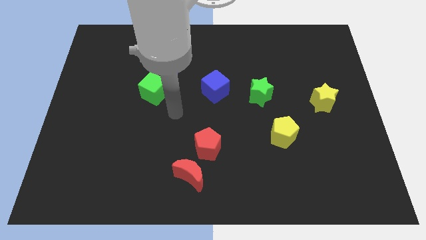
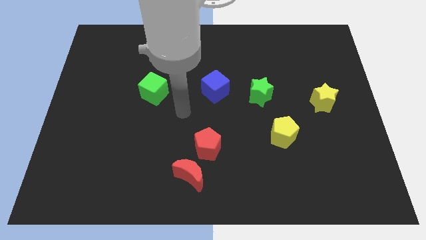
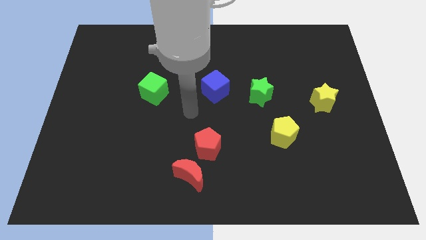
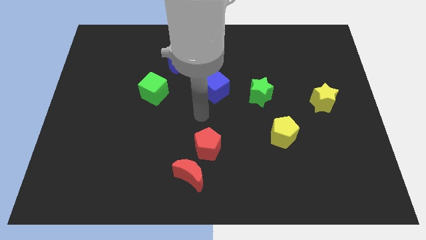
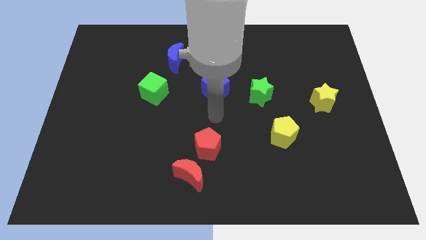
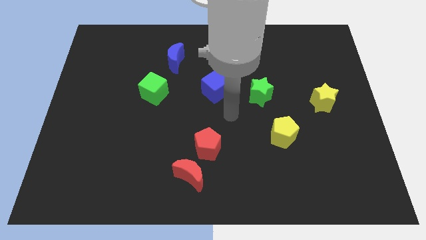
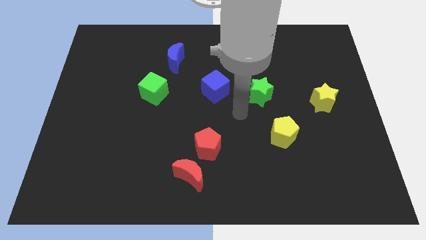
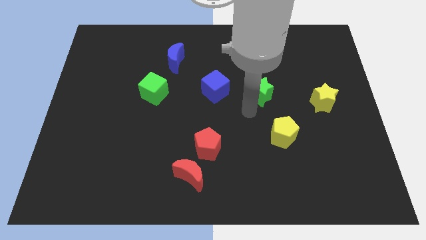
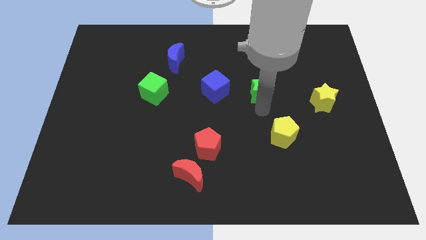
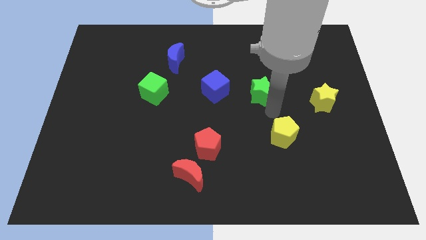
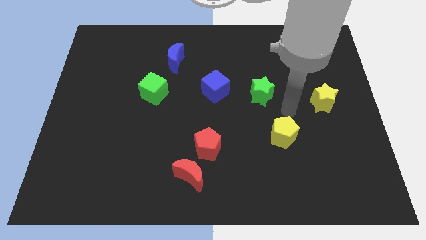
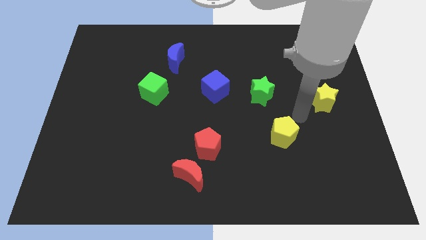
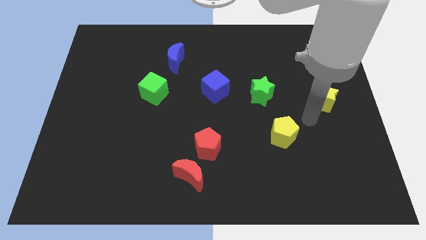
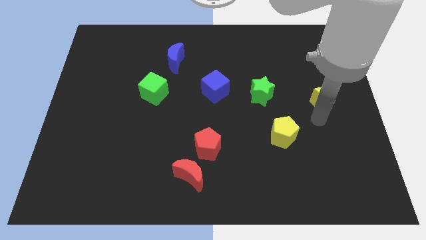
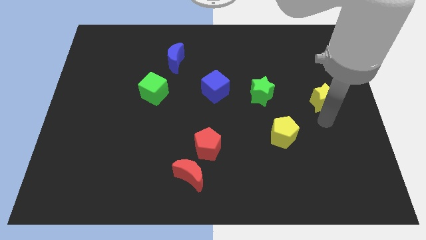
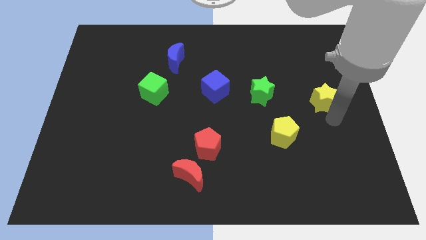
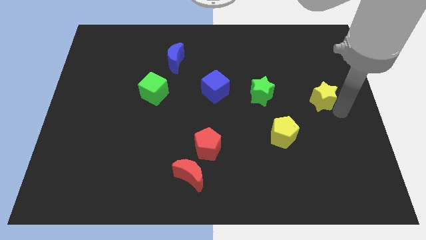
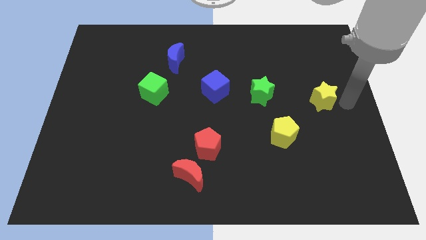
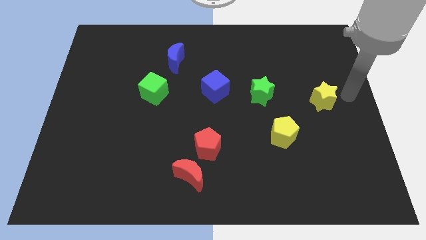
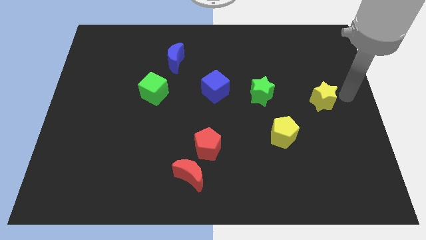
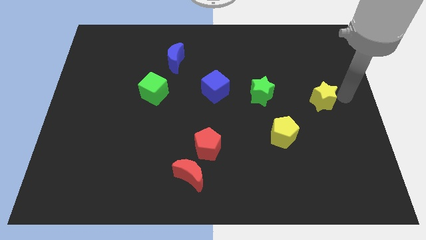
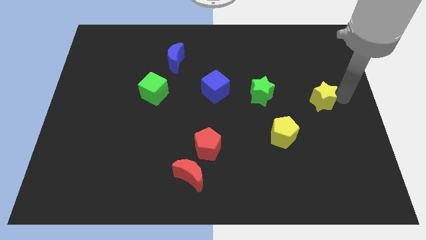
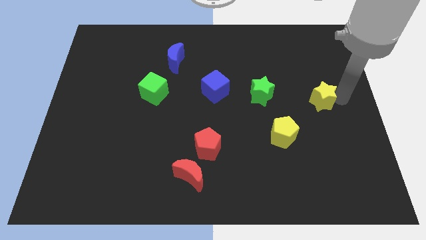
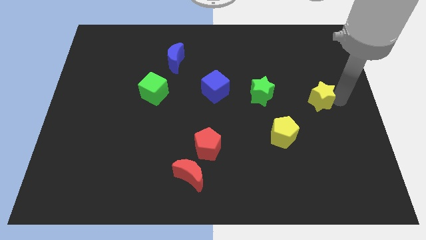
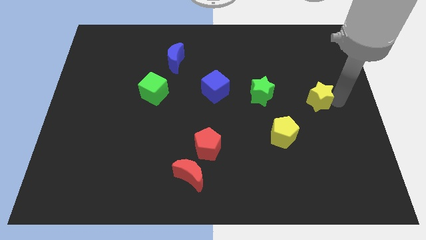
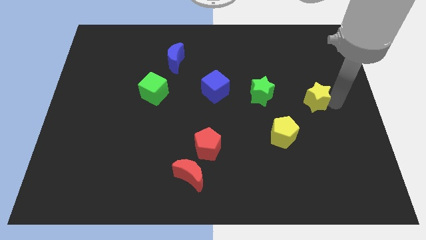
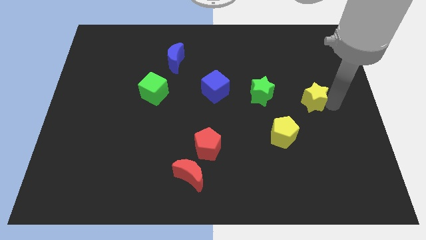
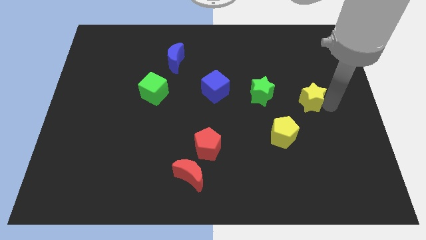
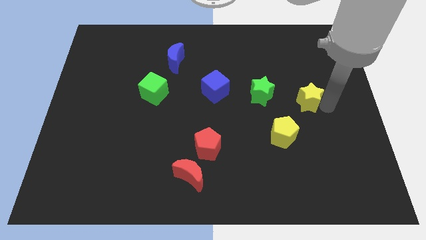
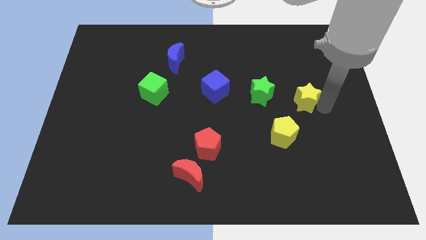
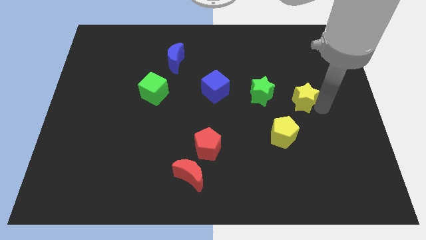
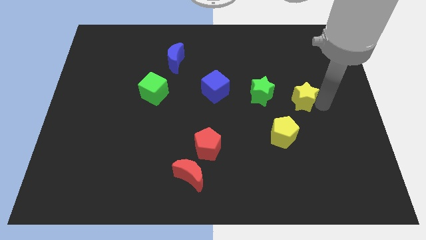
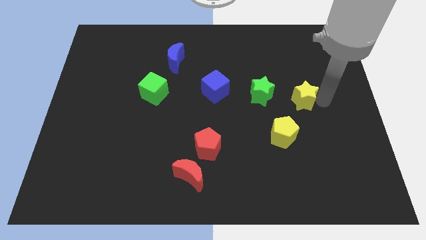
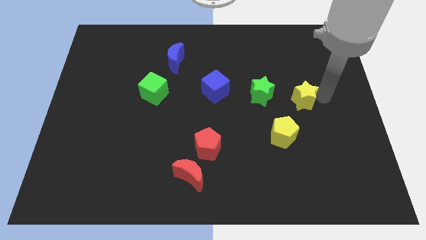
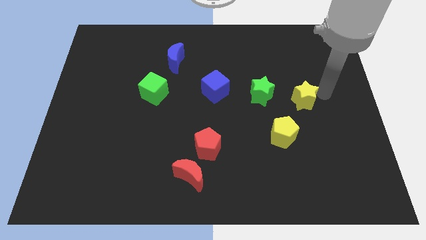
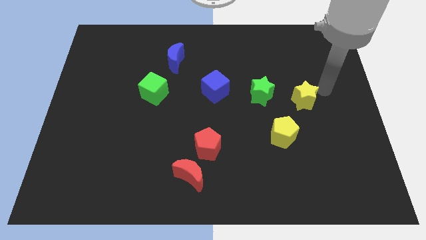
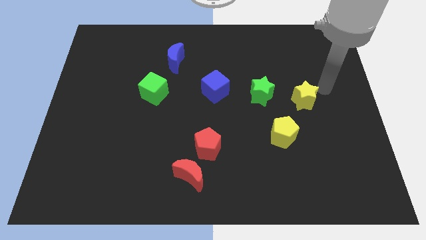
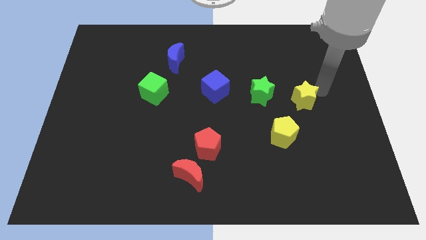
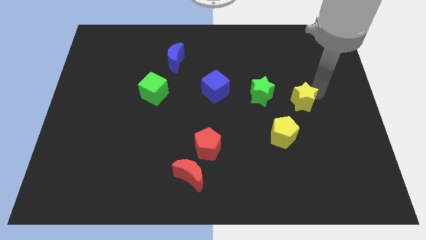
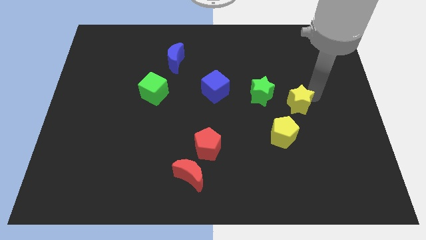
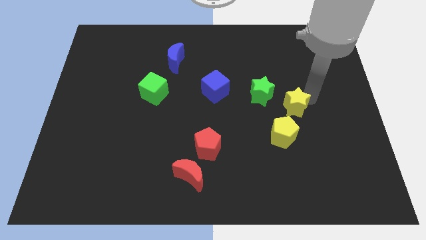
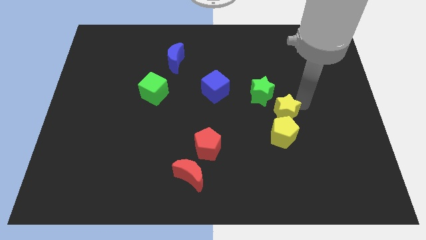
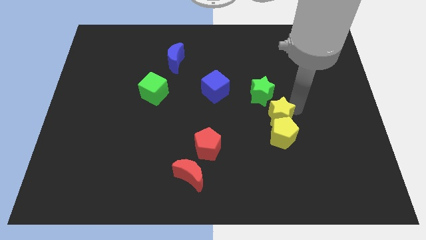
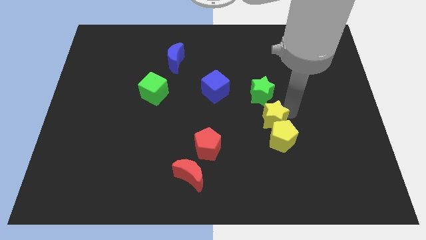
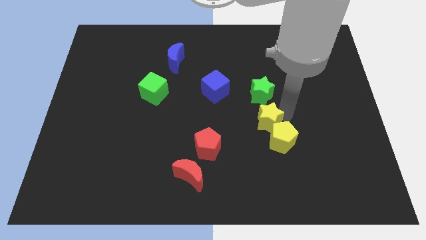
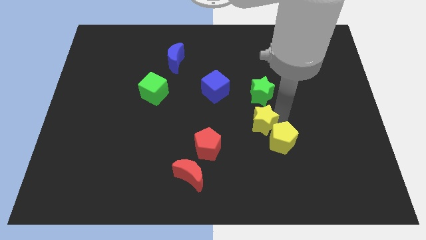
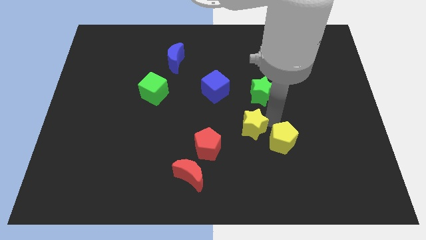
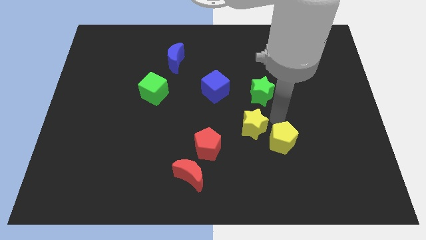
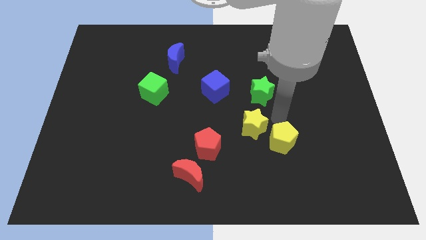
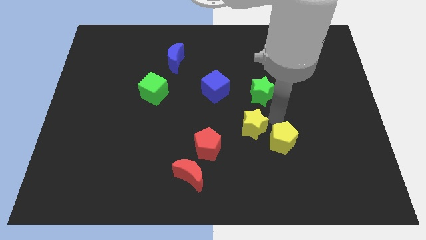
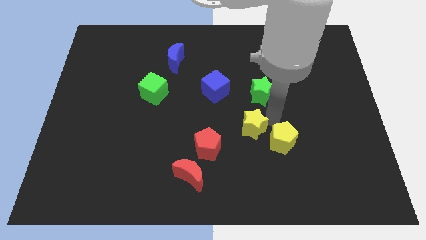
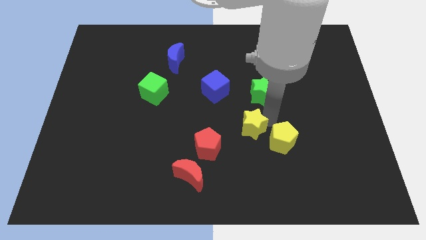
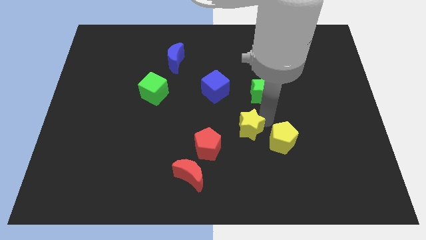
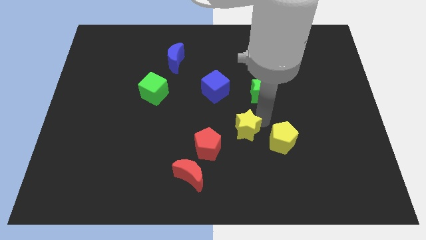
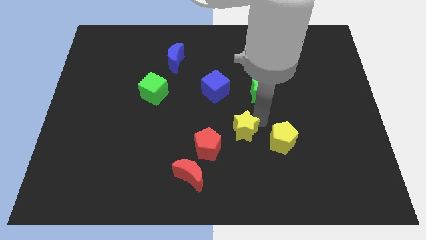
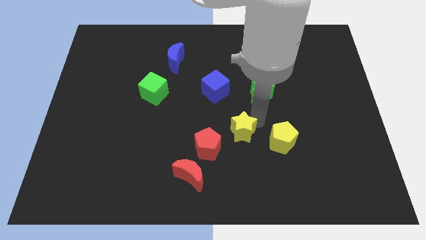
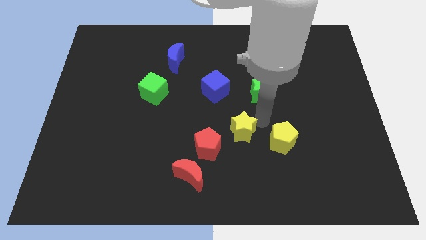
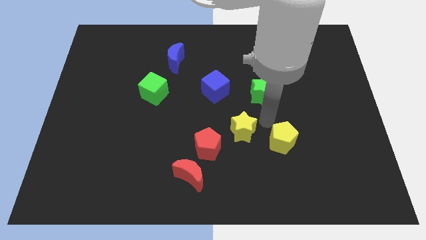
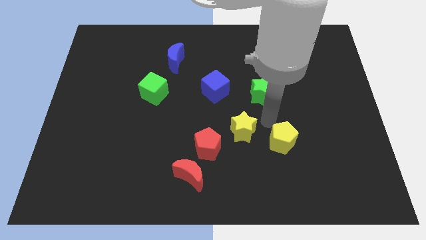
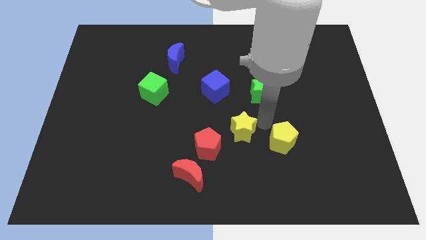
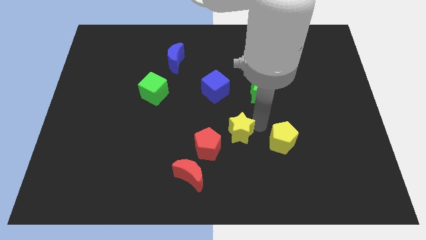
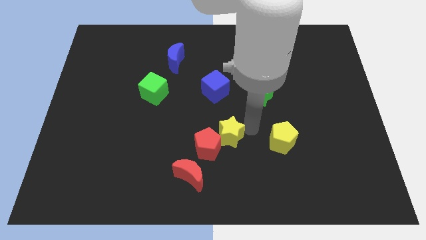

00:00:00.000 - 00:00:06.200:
put the yellow star to the red pentagon

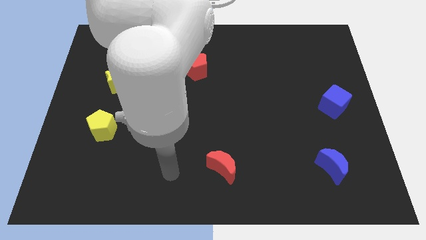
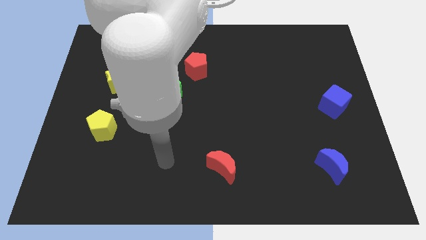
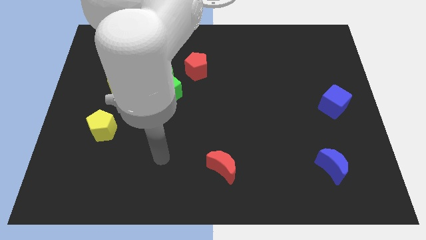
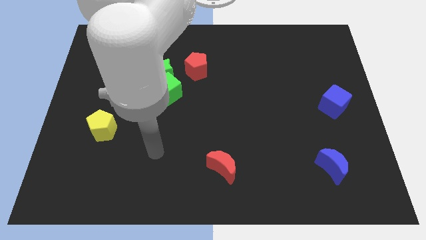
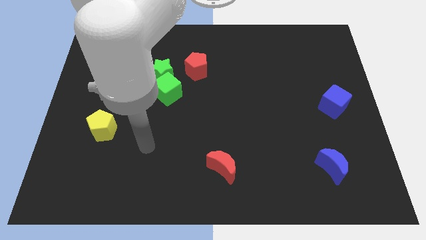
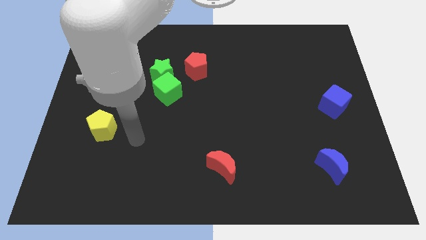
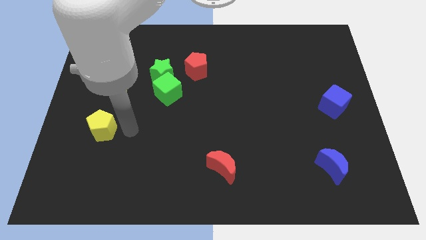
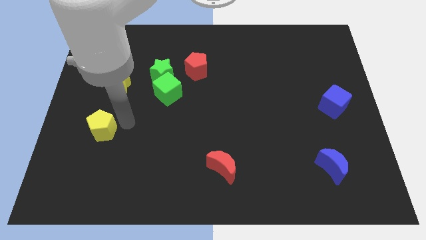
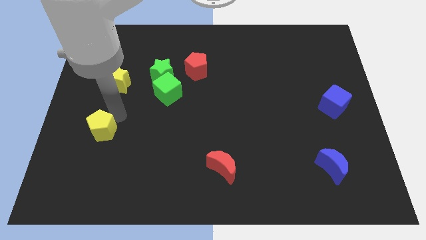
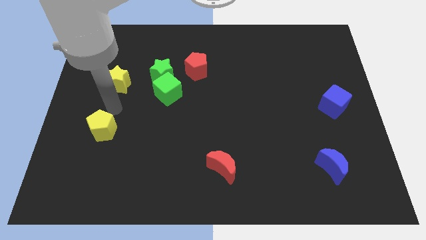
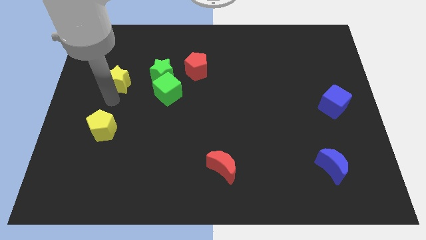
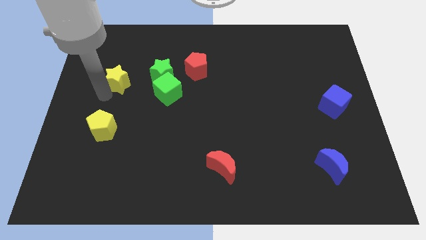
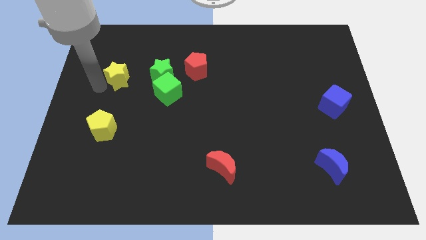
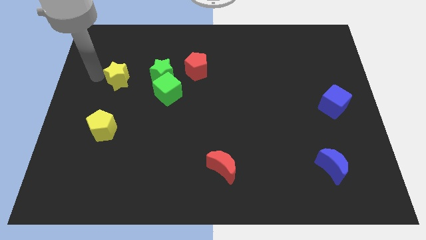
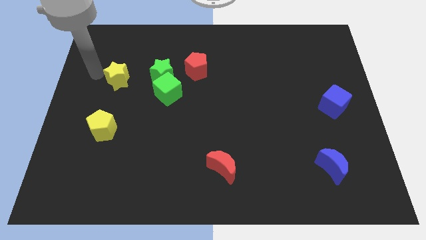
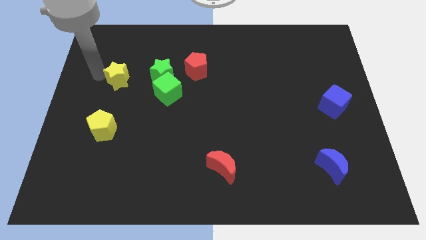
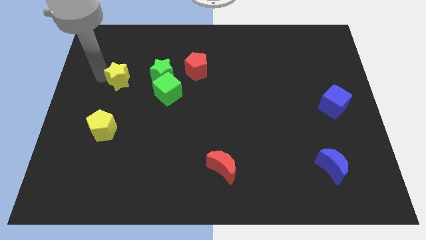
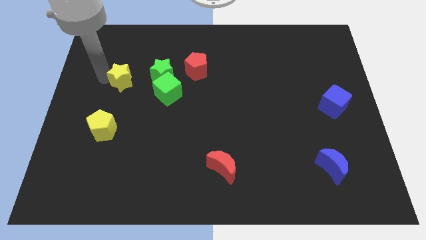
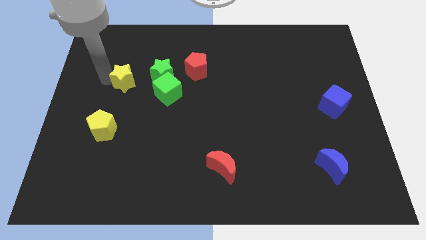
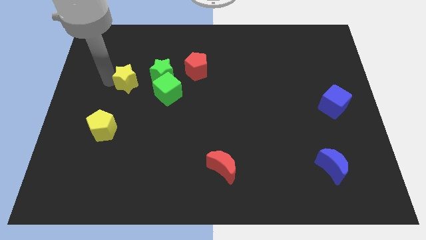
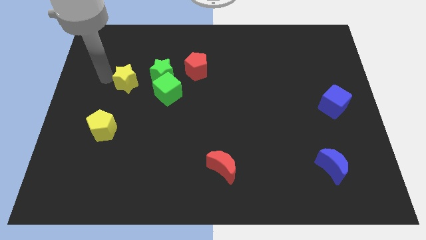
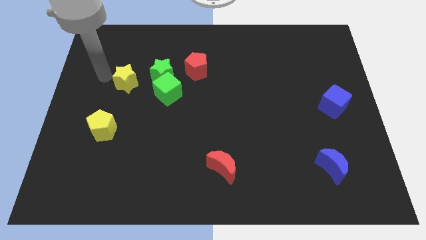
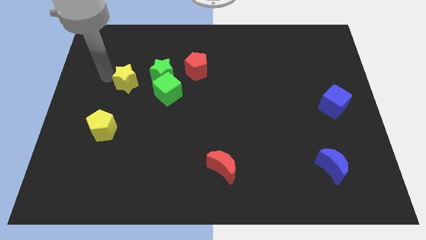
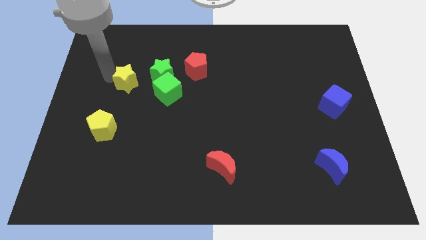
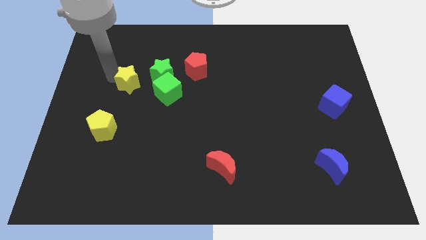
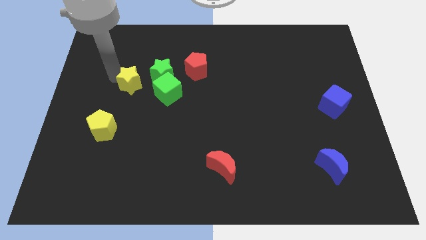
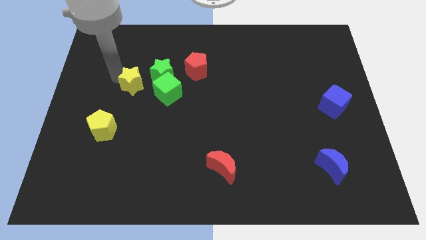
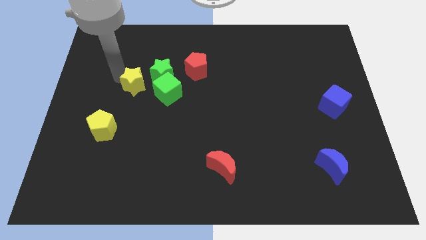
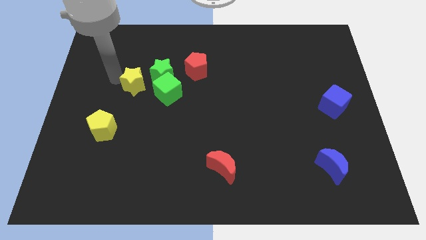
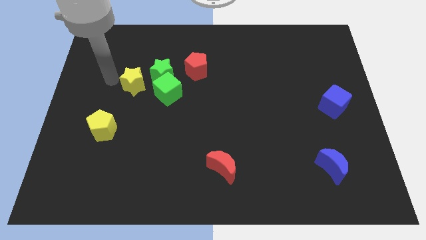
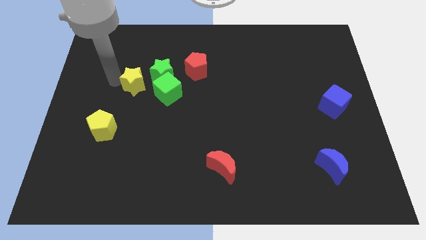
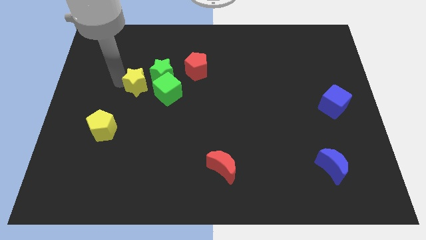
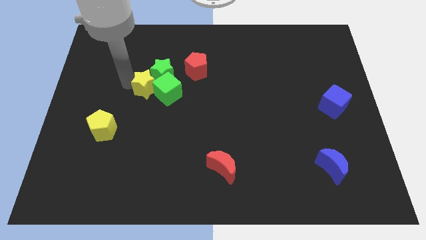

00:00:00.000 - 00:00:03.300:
push the yellow star to the green cube
